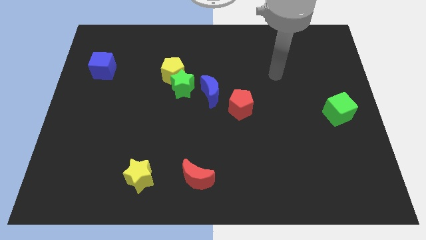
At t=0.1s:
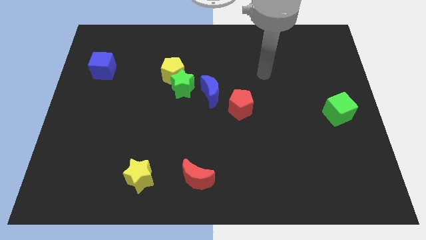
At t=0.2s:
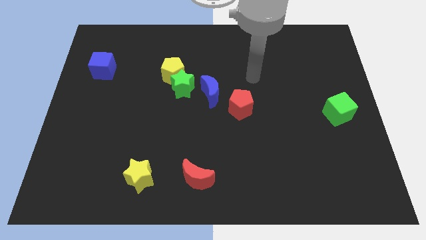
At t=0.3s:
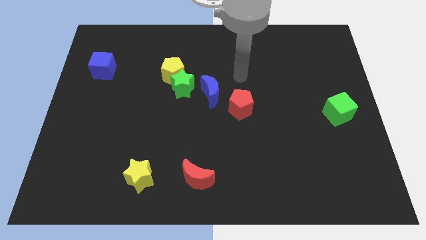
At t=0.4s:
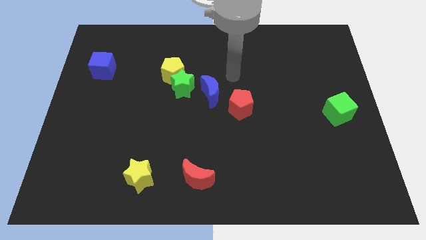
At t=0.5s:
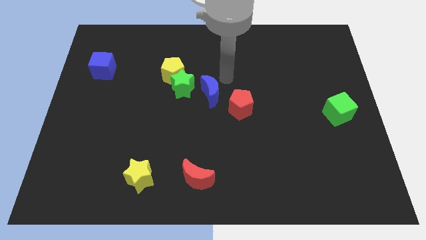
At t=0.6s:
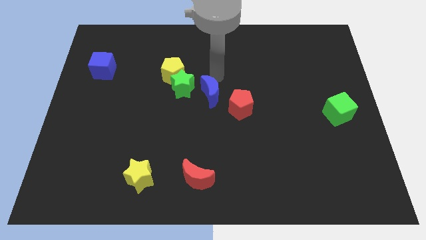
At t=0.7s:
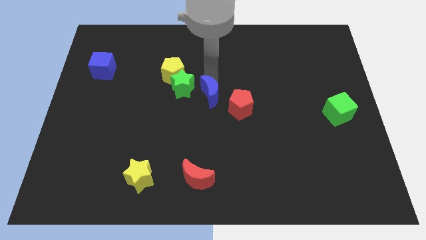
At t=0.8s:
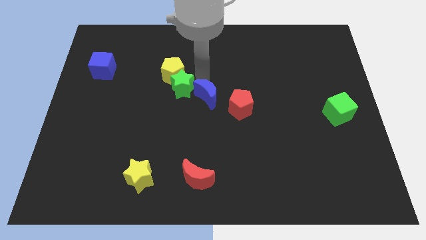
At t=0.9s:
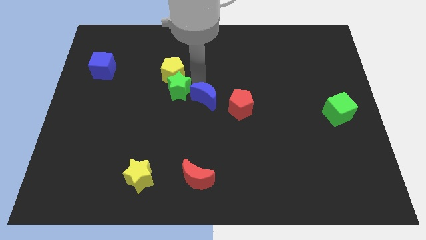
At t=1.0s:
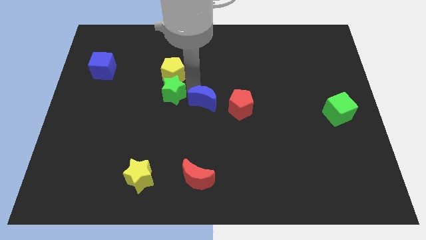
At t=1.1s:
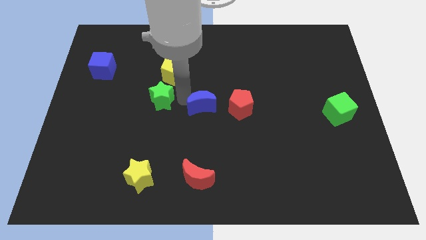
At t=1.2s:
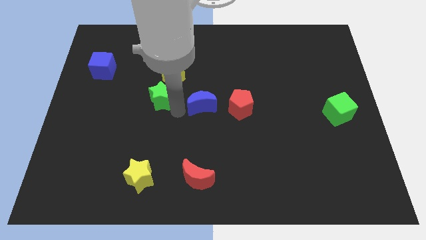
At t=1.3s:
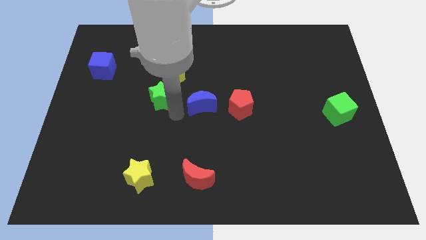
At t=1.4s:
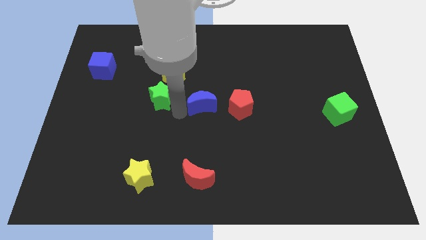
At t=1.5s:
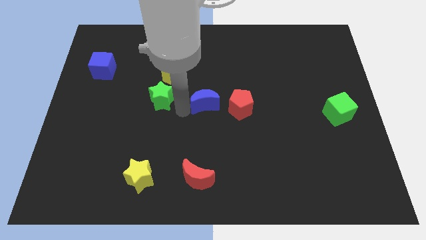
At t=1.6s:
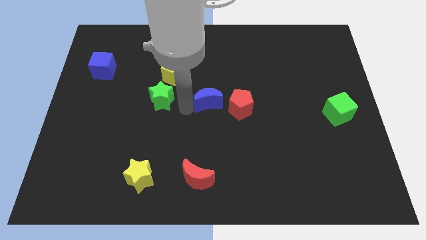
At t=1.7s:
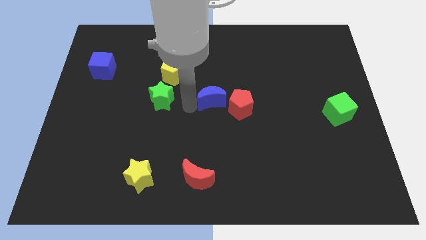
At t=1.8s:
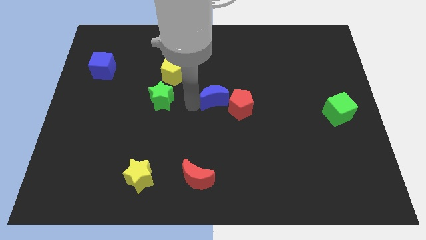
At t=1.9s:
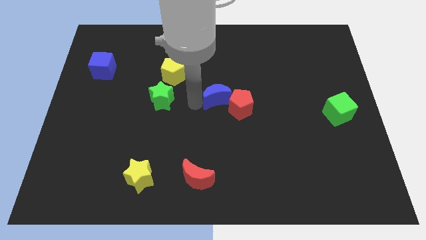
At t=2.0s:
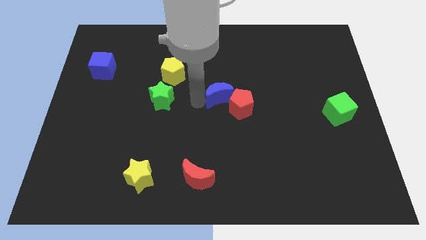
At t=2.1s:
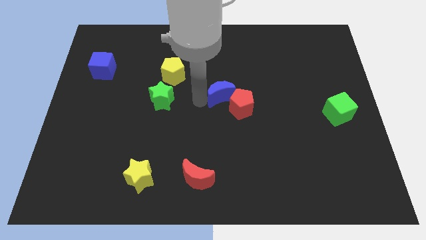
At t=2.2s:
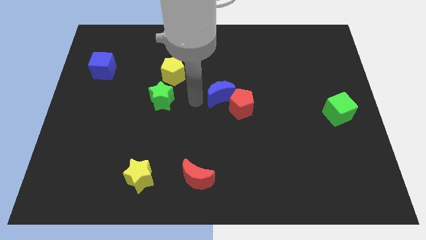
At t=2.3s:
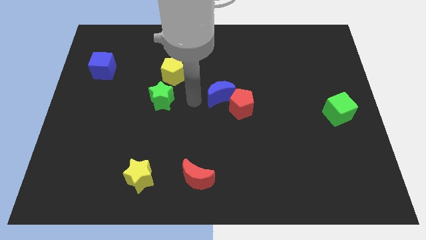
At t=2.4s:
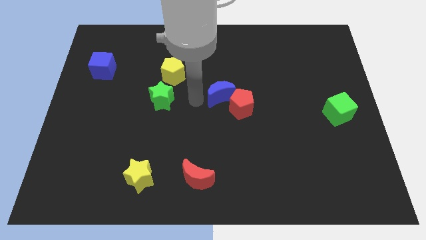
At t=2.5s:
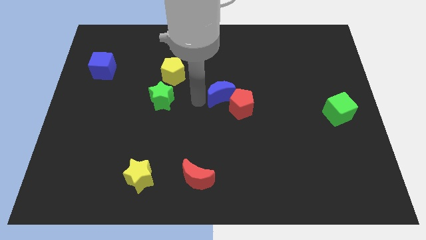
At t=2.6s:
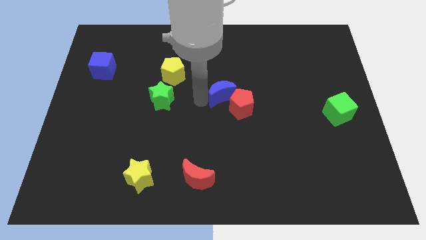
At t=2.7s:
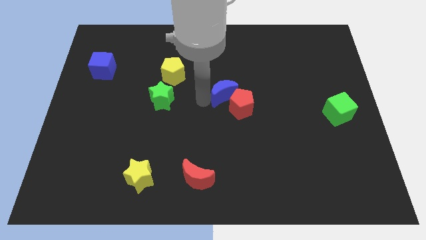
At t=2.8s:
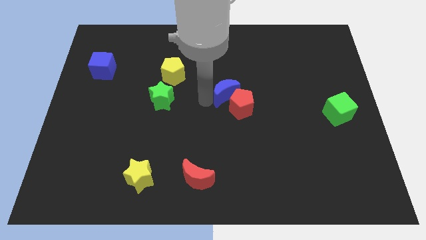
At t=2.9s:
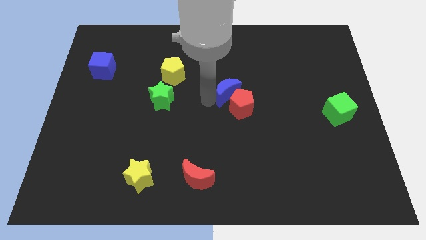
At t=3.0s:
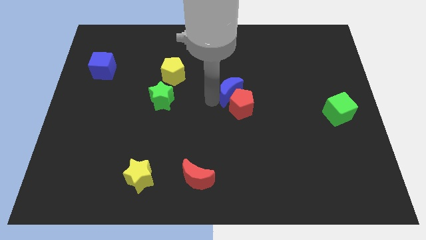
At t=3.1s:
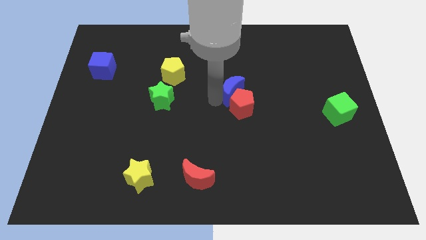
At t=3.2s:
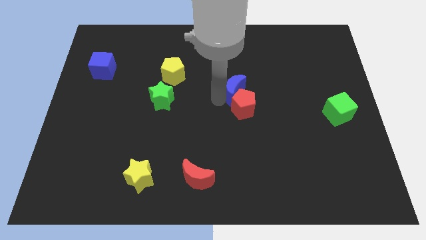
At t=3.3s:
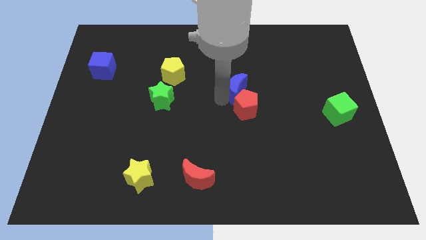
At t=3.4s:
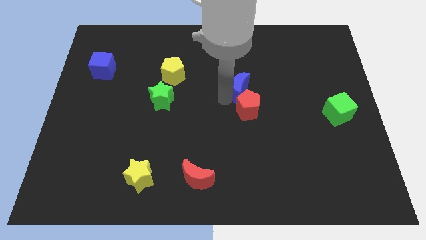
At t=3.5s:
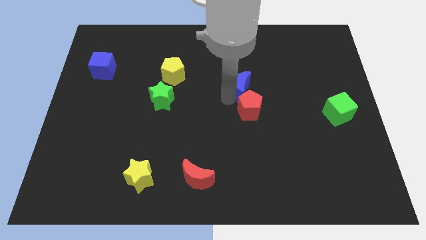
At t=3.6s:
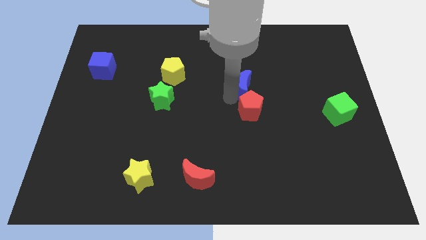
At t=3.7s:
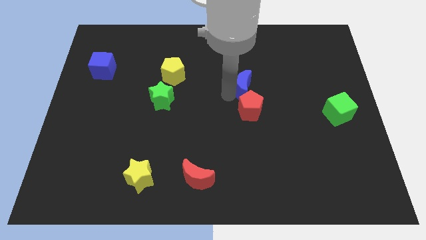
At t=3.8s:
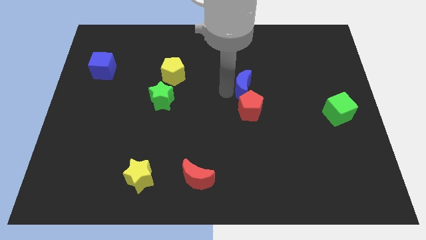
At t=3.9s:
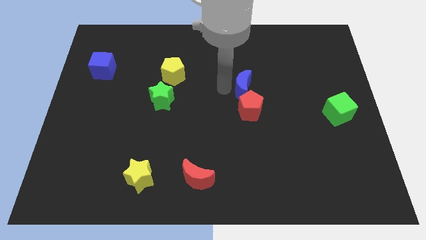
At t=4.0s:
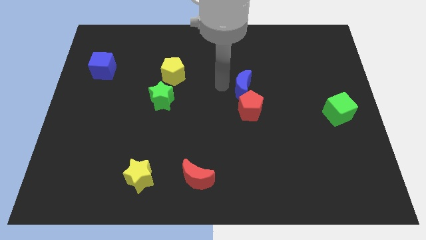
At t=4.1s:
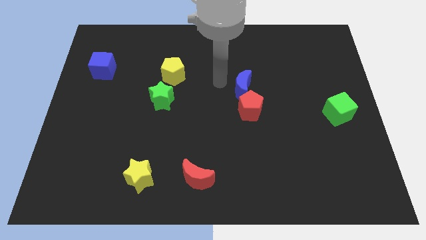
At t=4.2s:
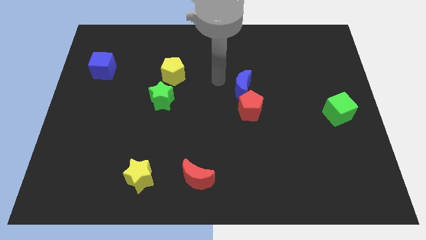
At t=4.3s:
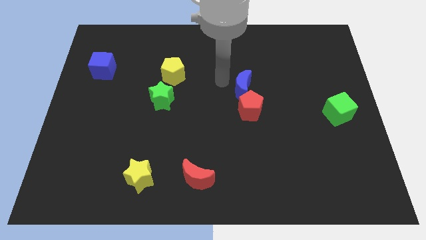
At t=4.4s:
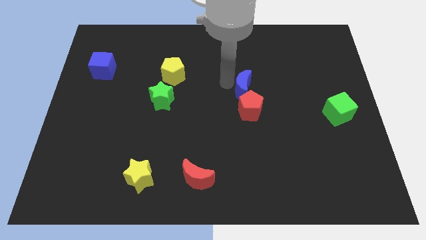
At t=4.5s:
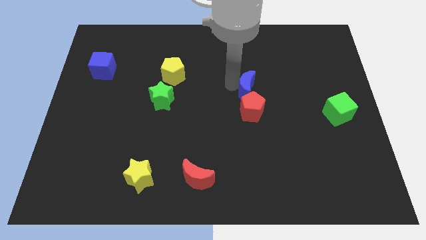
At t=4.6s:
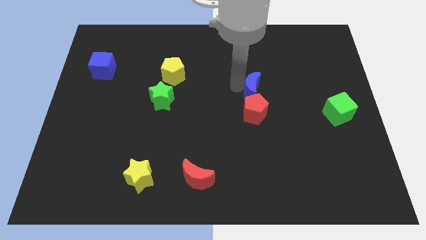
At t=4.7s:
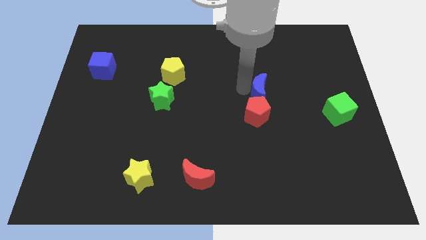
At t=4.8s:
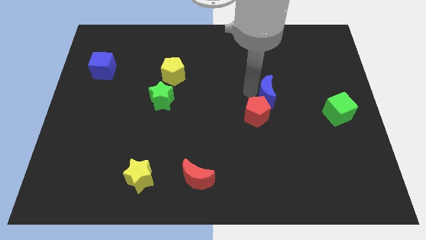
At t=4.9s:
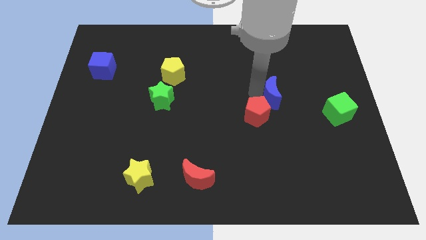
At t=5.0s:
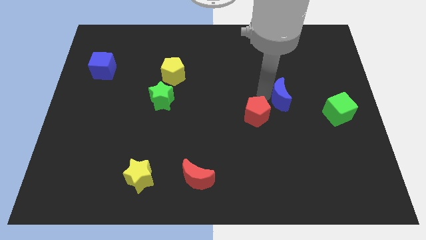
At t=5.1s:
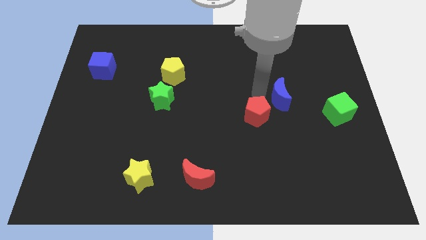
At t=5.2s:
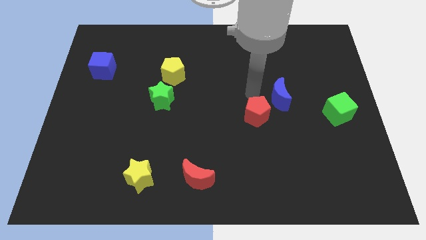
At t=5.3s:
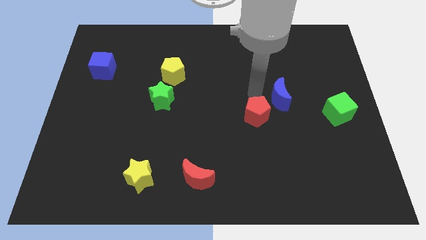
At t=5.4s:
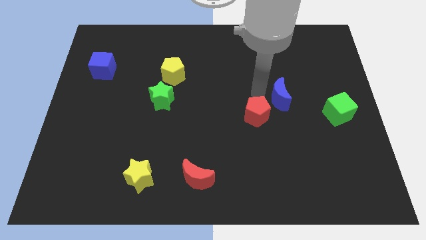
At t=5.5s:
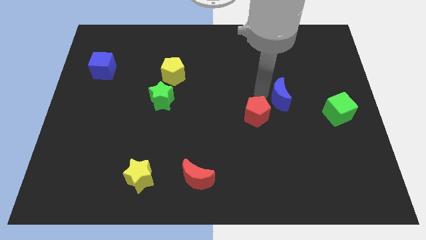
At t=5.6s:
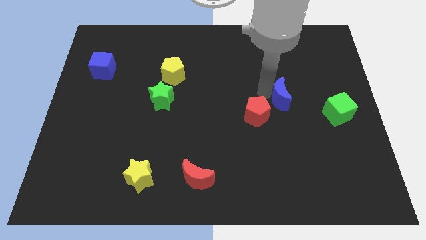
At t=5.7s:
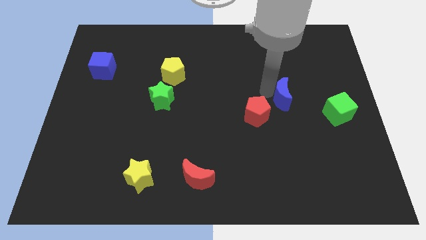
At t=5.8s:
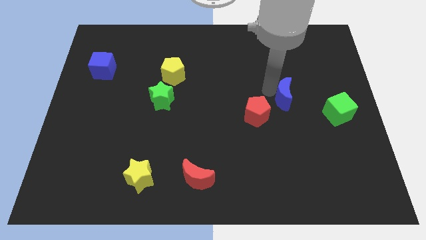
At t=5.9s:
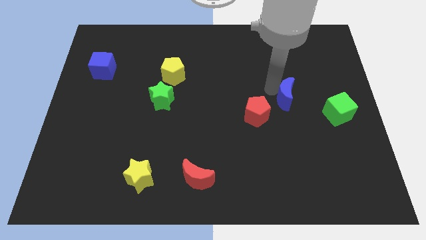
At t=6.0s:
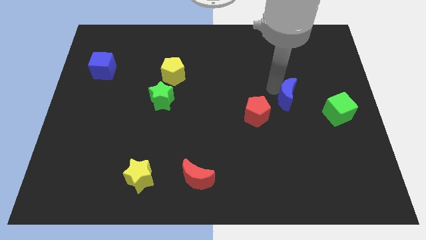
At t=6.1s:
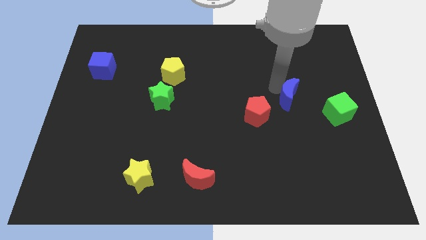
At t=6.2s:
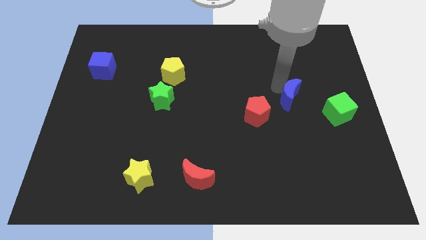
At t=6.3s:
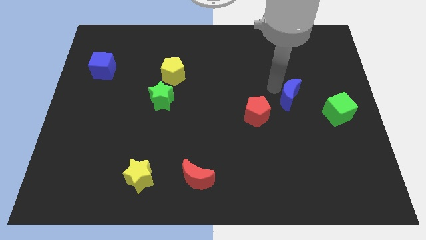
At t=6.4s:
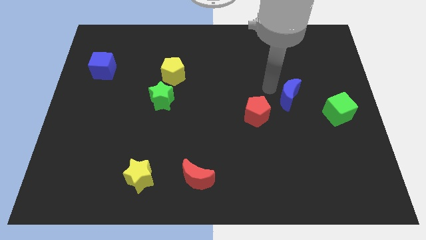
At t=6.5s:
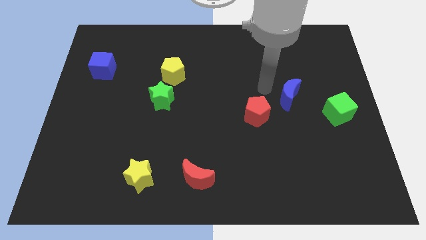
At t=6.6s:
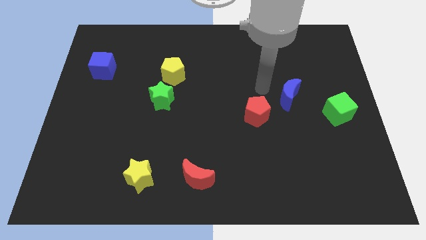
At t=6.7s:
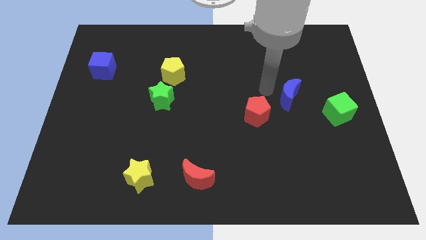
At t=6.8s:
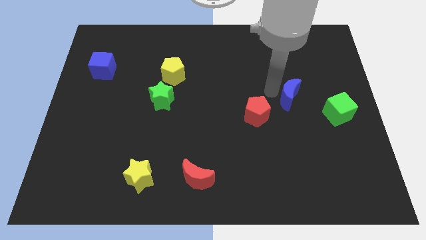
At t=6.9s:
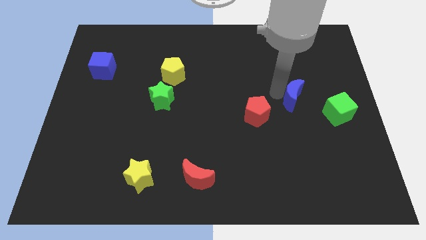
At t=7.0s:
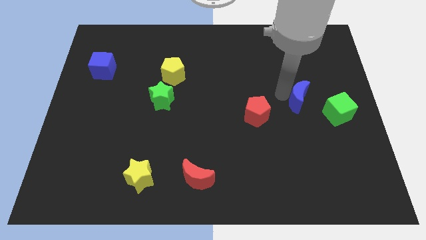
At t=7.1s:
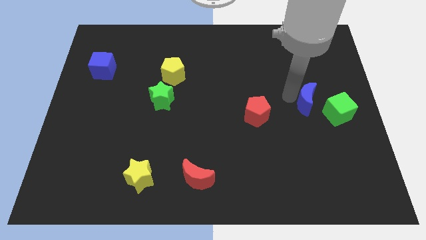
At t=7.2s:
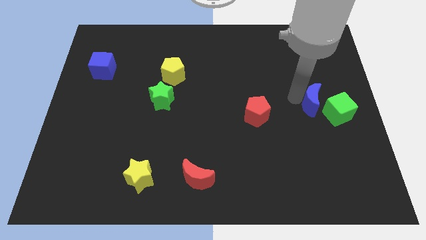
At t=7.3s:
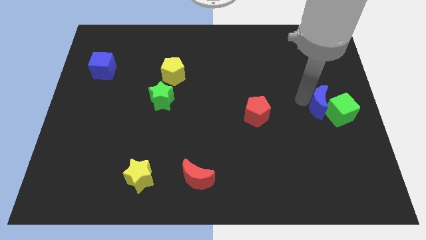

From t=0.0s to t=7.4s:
put the blue moon next to the green cube
